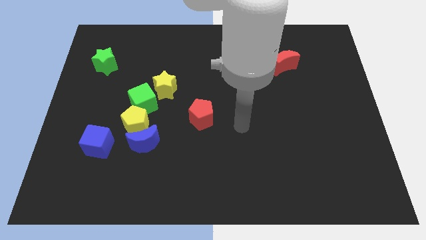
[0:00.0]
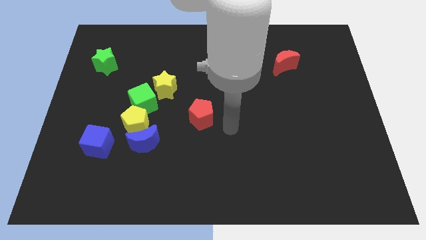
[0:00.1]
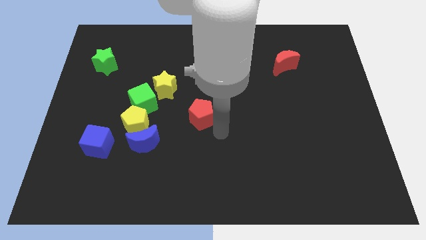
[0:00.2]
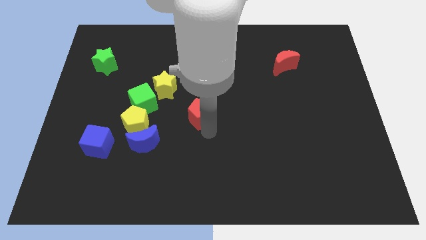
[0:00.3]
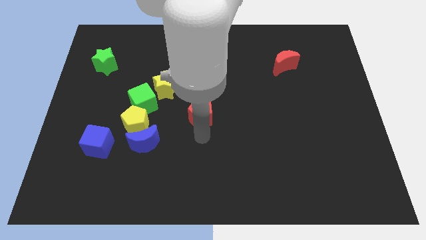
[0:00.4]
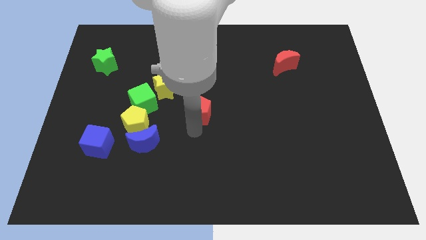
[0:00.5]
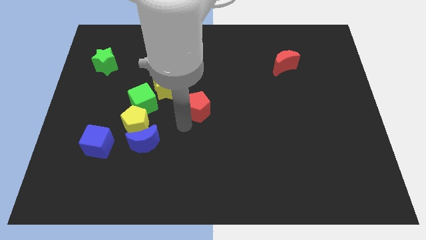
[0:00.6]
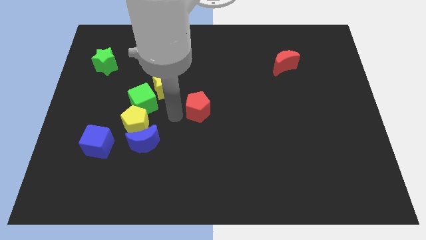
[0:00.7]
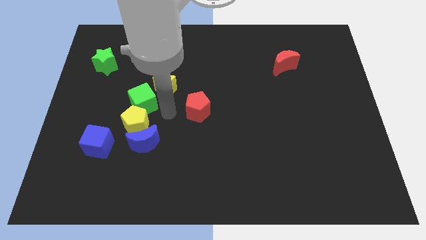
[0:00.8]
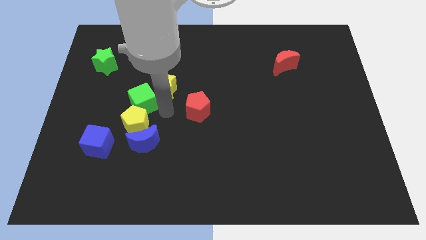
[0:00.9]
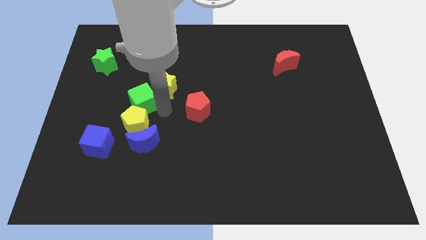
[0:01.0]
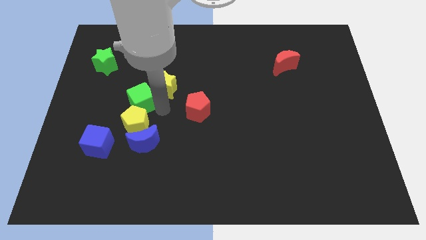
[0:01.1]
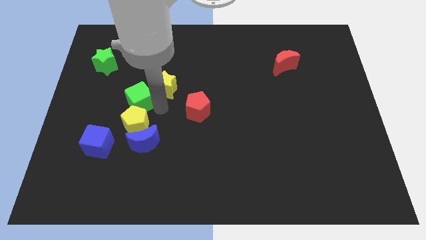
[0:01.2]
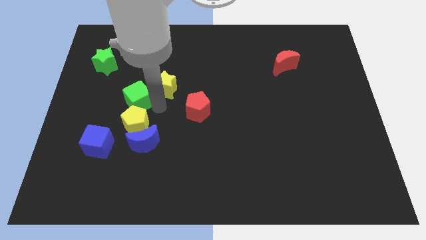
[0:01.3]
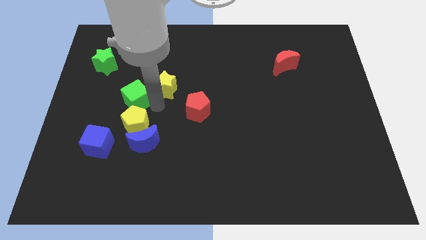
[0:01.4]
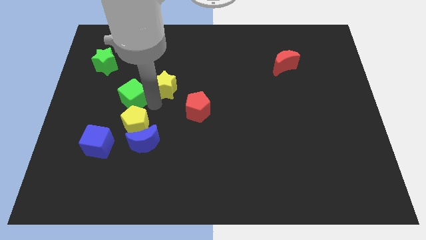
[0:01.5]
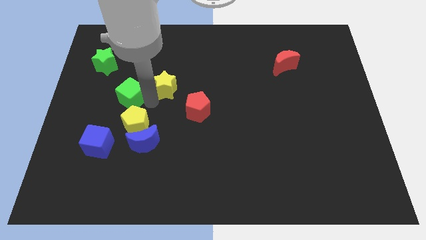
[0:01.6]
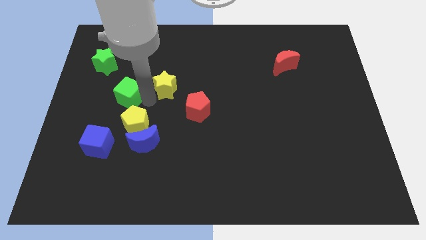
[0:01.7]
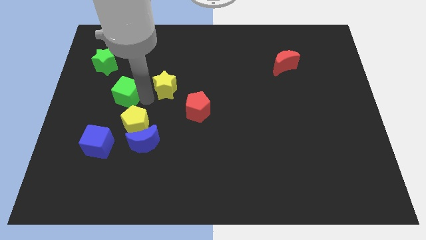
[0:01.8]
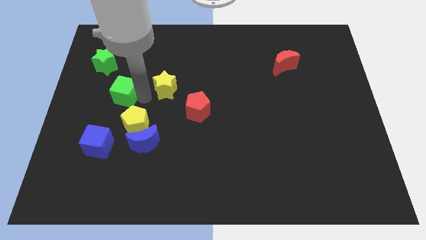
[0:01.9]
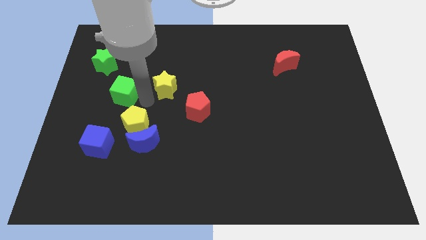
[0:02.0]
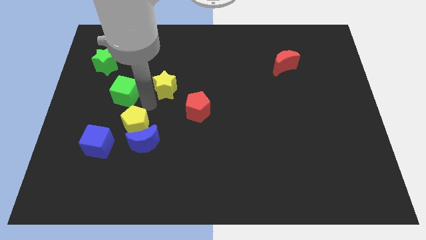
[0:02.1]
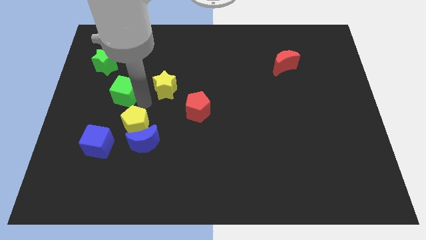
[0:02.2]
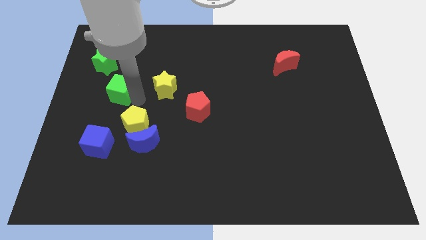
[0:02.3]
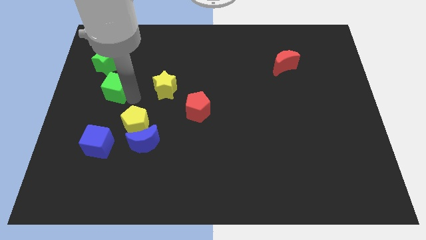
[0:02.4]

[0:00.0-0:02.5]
move the green cube away from the yellow pentagon and yellow star

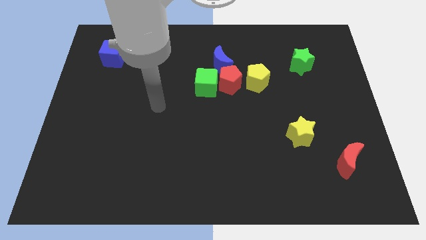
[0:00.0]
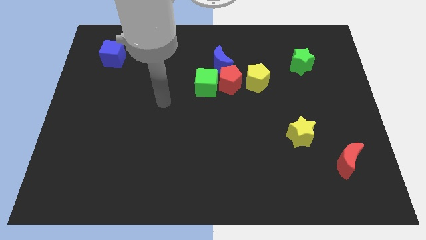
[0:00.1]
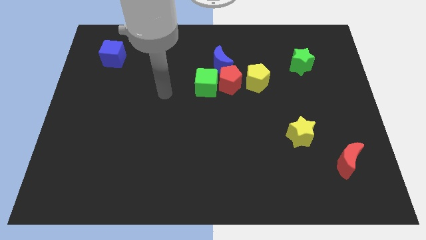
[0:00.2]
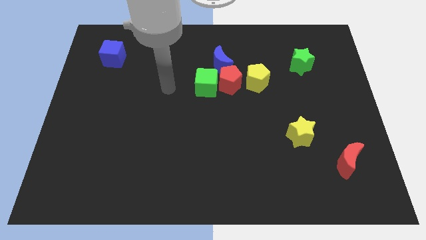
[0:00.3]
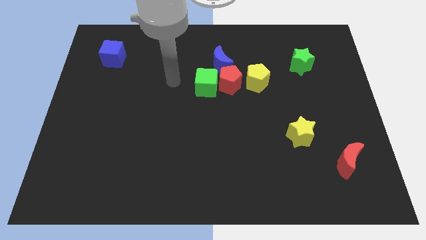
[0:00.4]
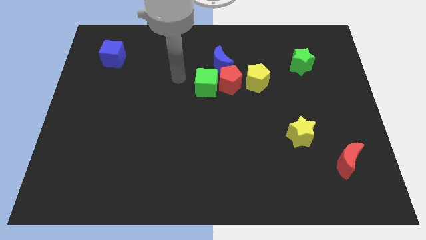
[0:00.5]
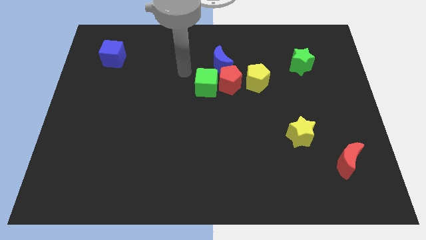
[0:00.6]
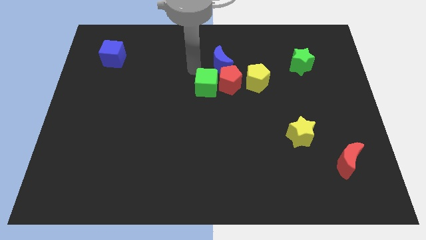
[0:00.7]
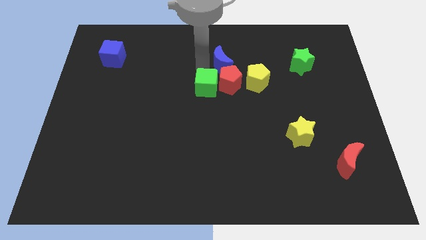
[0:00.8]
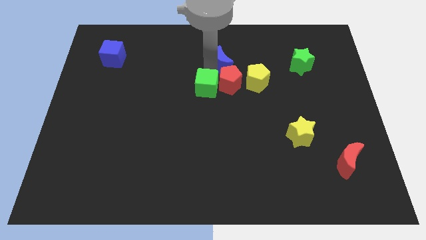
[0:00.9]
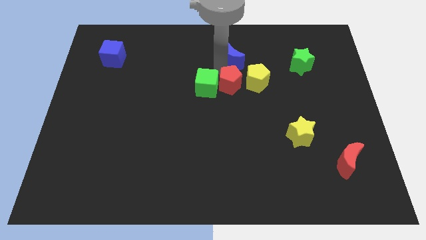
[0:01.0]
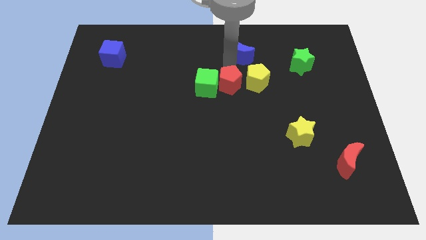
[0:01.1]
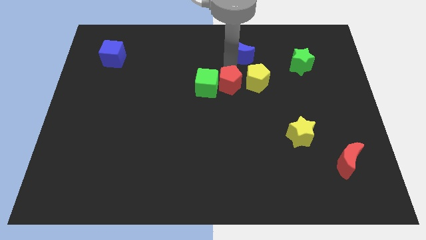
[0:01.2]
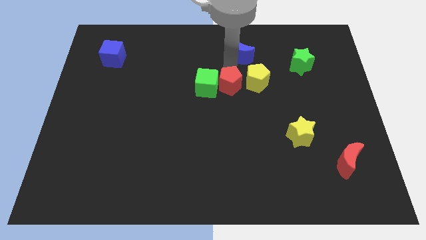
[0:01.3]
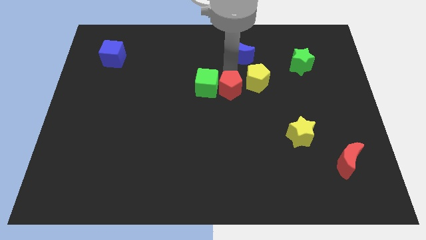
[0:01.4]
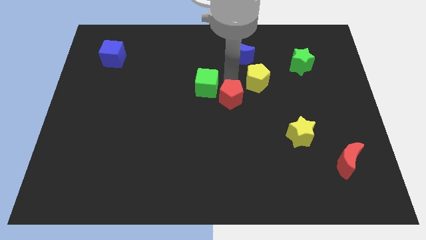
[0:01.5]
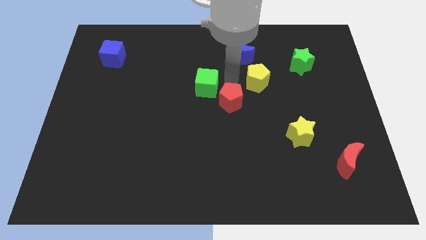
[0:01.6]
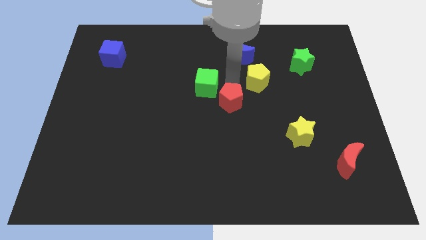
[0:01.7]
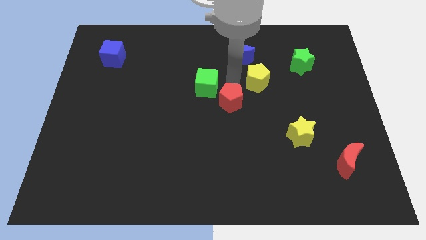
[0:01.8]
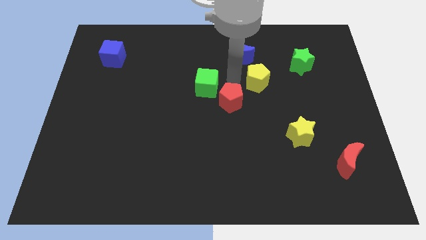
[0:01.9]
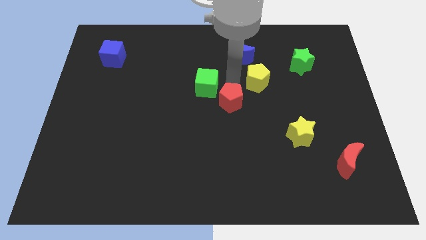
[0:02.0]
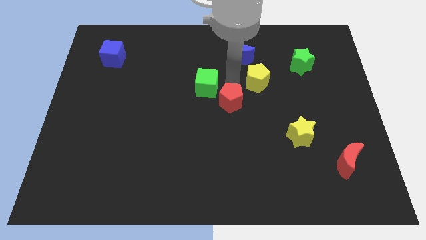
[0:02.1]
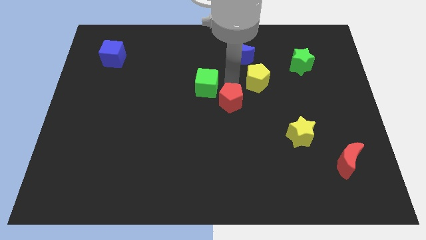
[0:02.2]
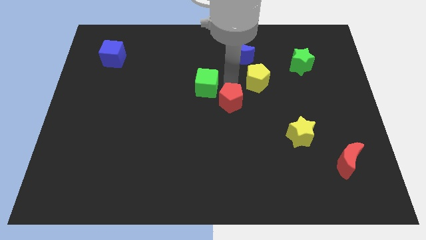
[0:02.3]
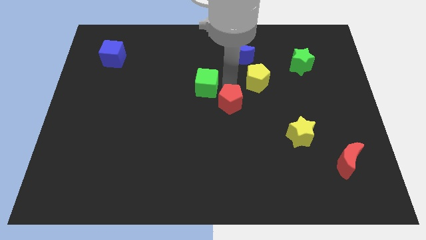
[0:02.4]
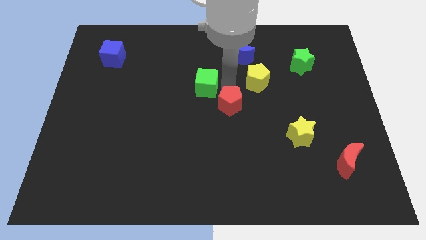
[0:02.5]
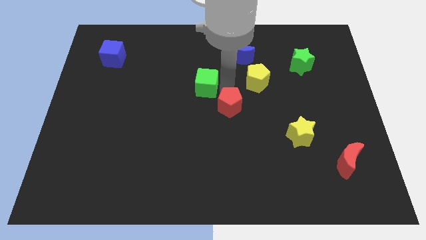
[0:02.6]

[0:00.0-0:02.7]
separate the red pentagon from the clump

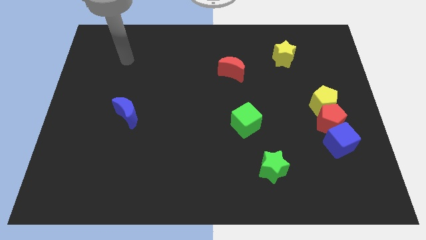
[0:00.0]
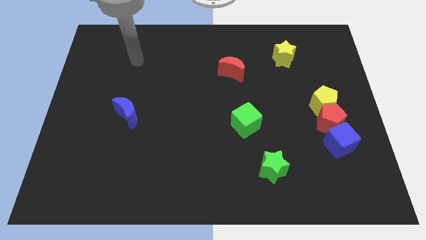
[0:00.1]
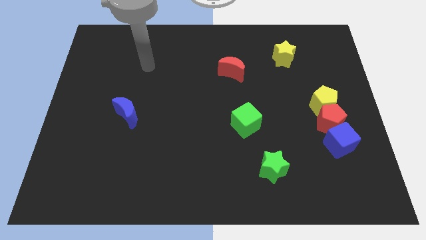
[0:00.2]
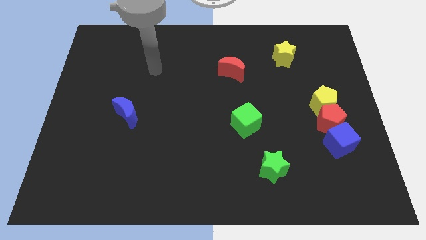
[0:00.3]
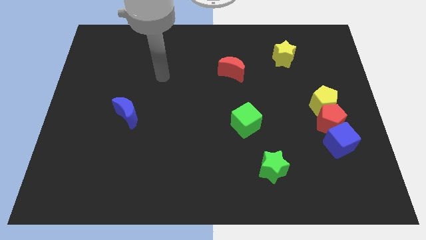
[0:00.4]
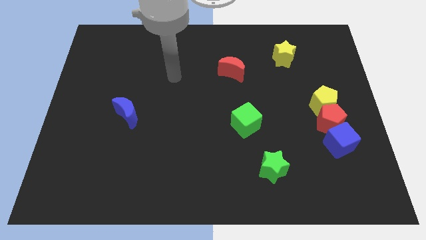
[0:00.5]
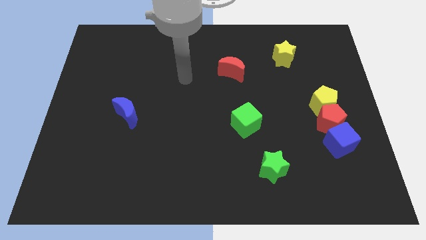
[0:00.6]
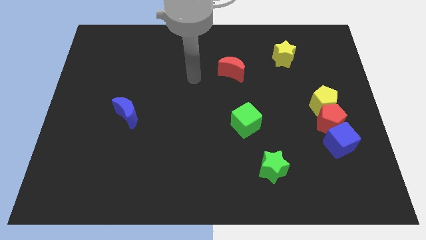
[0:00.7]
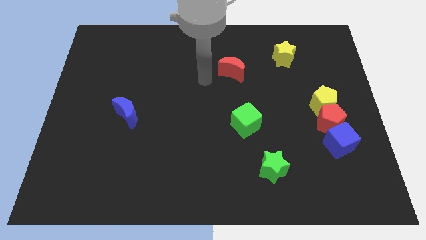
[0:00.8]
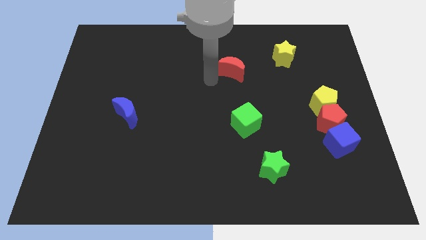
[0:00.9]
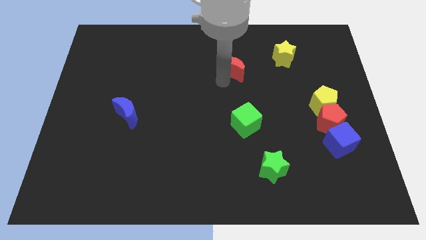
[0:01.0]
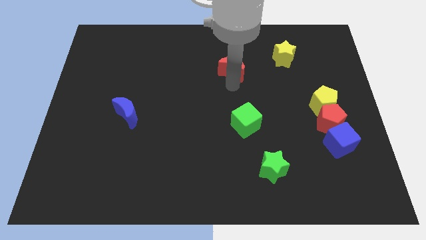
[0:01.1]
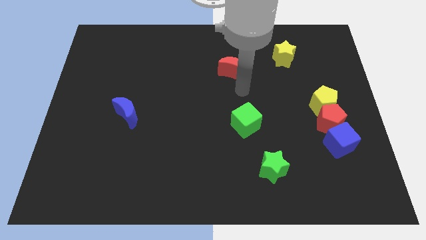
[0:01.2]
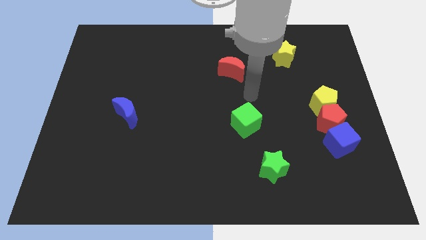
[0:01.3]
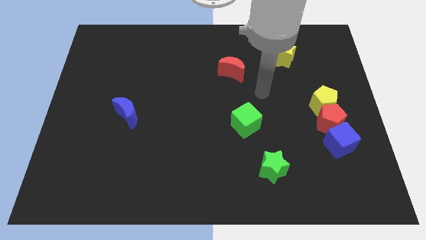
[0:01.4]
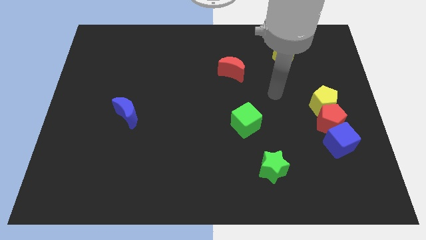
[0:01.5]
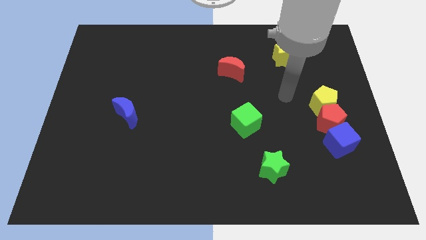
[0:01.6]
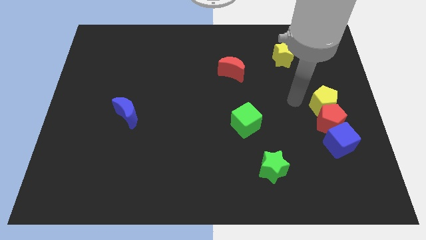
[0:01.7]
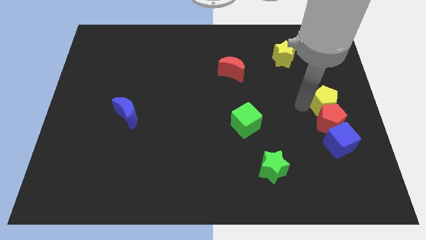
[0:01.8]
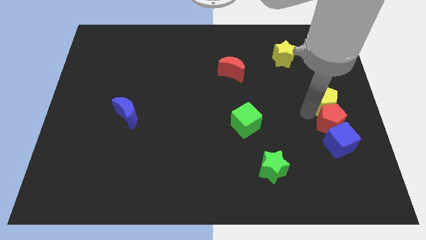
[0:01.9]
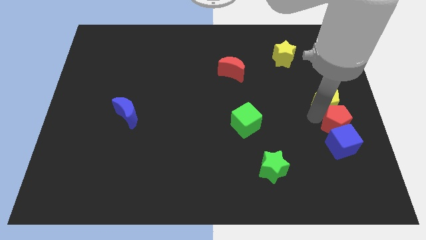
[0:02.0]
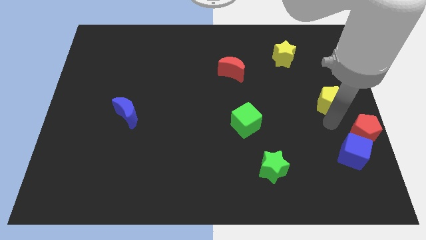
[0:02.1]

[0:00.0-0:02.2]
pull the yellow pentagon apart from the red pentagon

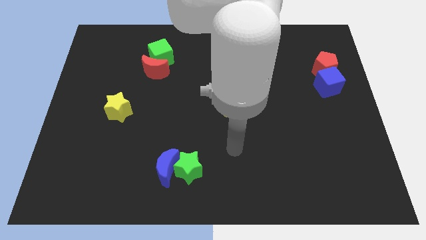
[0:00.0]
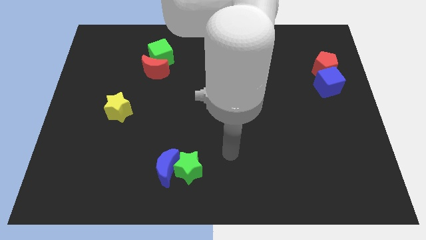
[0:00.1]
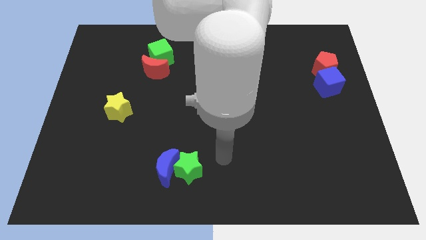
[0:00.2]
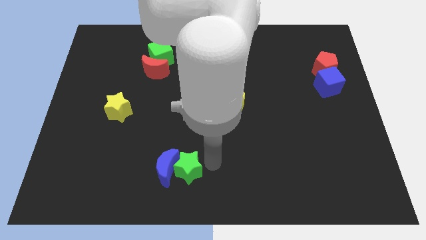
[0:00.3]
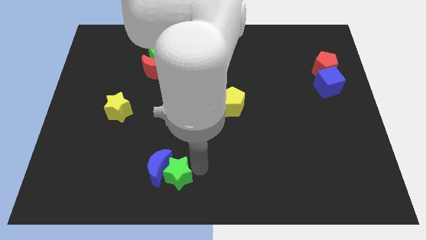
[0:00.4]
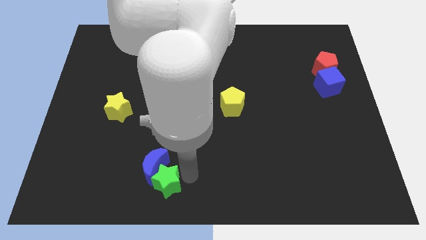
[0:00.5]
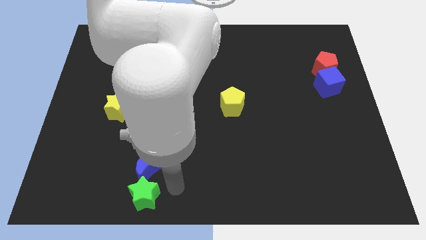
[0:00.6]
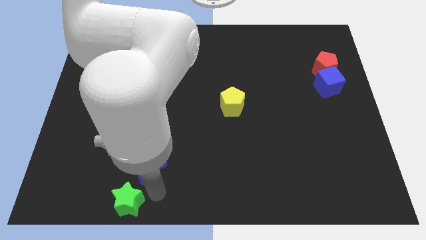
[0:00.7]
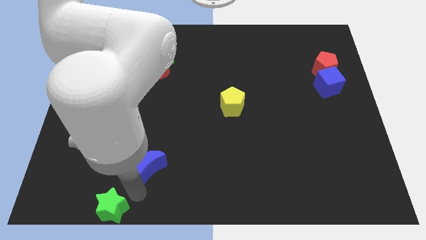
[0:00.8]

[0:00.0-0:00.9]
pull the blue moon apart from the green star

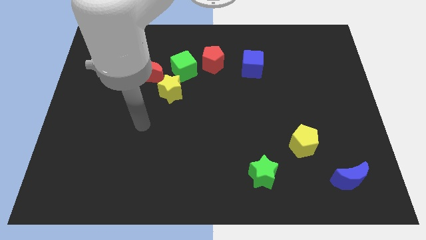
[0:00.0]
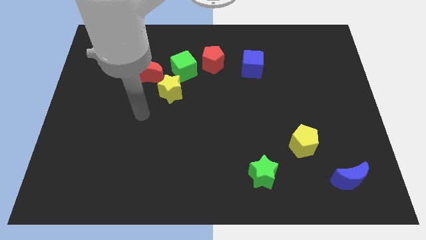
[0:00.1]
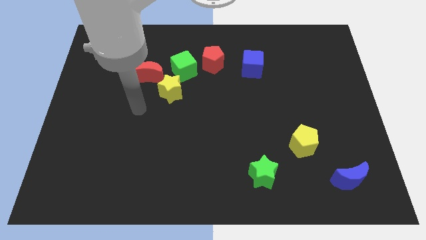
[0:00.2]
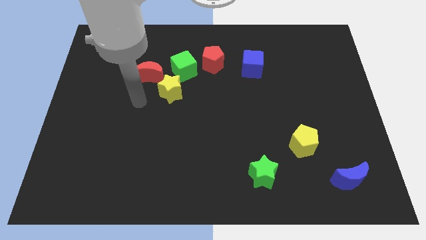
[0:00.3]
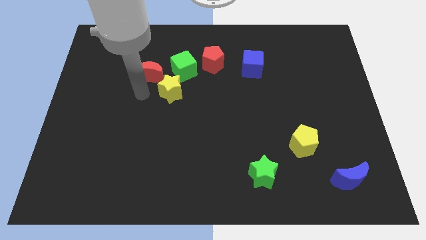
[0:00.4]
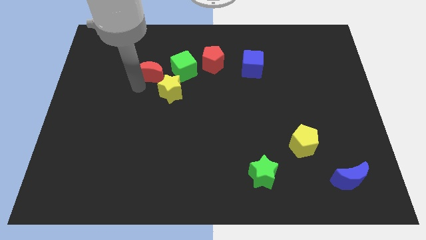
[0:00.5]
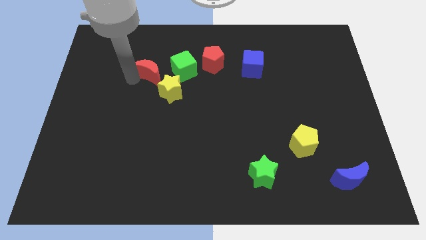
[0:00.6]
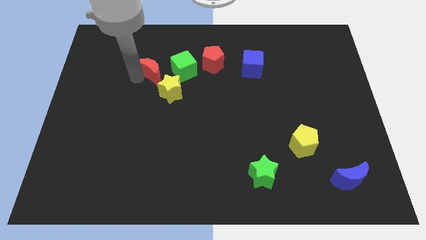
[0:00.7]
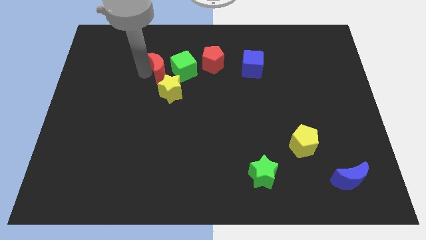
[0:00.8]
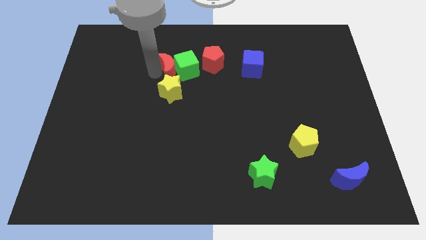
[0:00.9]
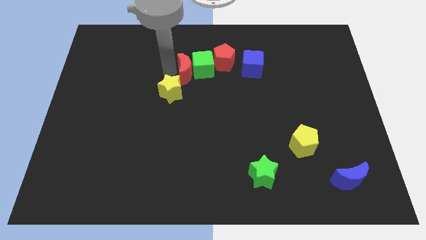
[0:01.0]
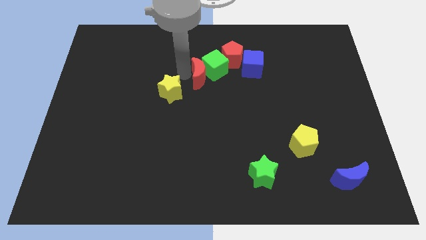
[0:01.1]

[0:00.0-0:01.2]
pull the yellow star apart from the red moon and green cube
